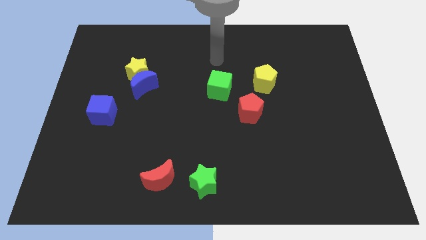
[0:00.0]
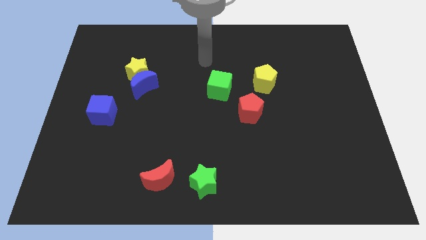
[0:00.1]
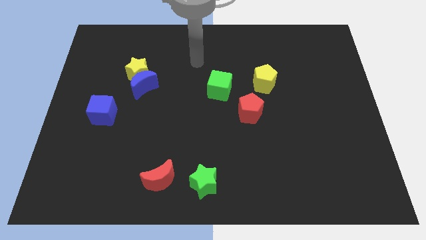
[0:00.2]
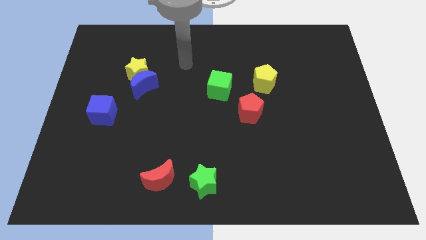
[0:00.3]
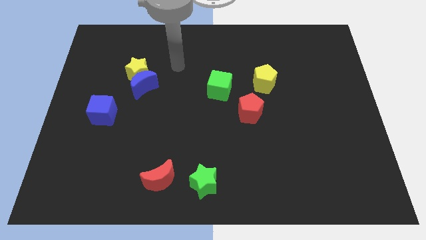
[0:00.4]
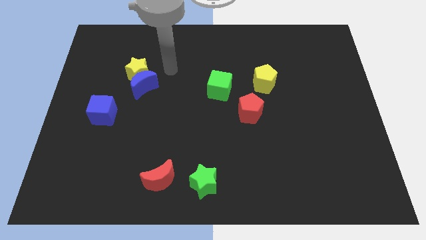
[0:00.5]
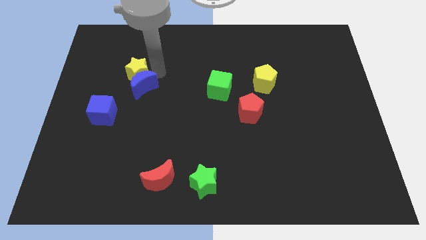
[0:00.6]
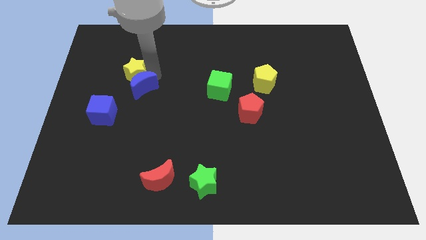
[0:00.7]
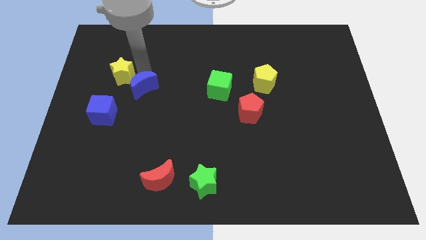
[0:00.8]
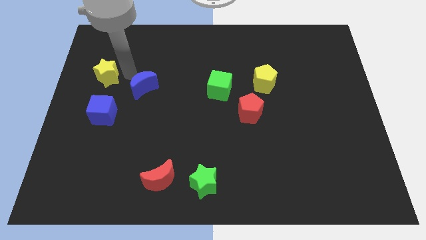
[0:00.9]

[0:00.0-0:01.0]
pull the blue moon apart from the yellow star

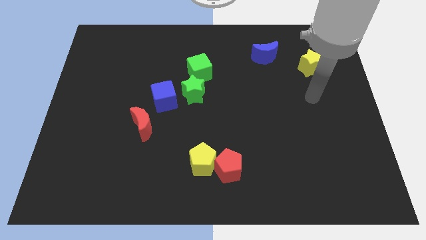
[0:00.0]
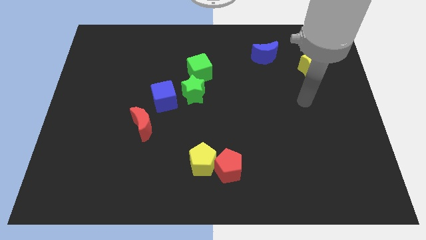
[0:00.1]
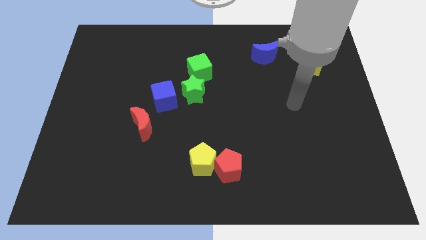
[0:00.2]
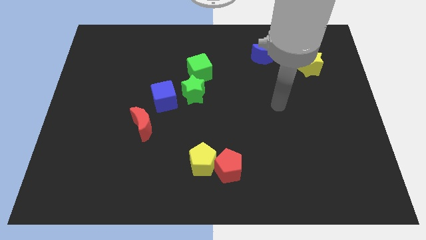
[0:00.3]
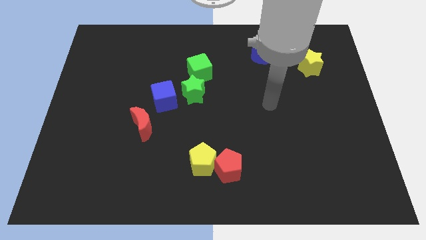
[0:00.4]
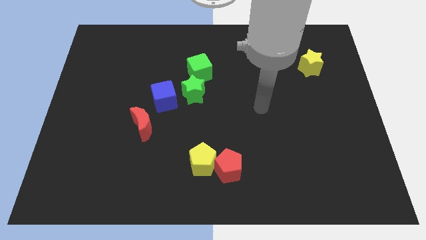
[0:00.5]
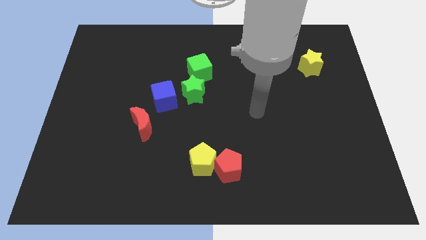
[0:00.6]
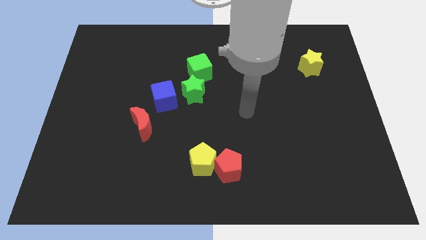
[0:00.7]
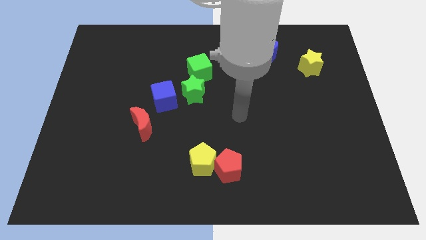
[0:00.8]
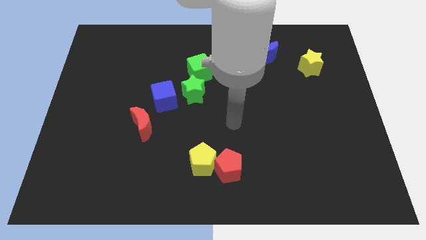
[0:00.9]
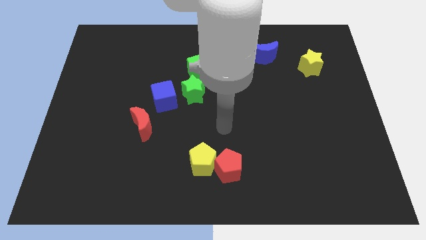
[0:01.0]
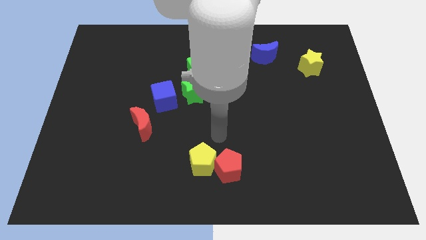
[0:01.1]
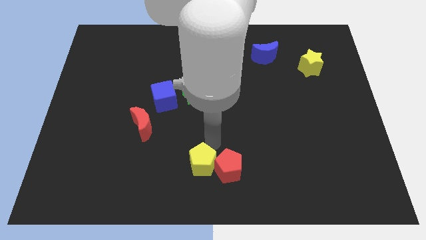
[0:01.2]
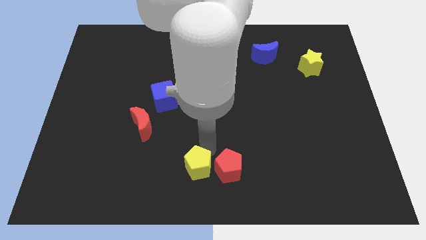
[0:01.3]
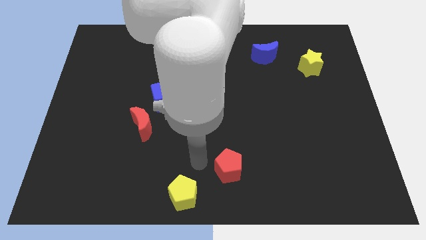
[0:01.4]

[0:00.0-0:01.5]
separate the red pentagon from the yellow pentagon

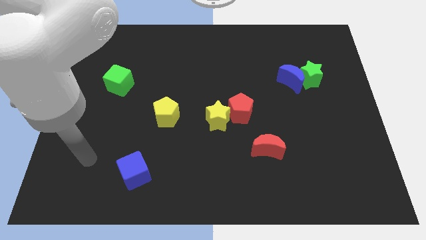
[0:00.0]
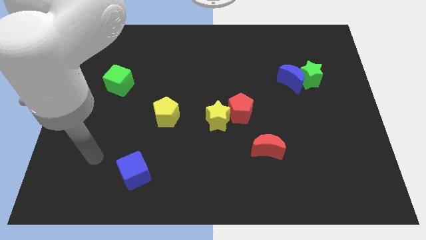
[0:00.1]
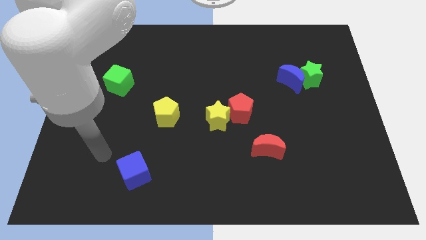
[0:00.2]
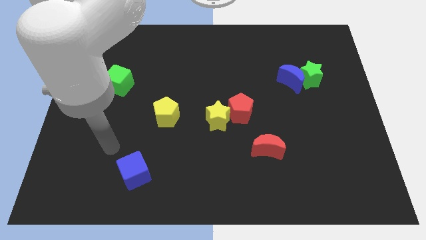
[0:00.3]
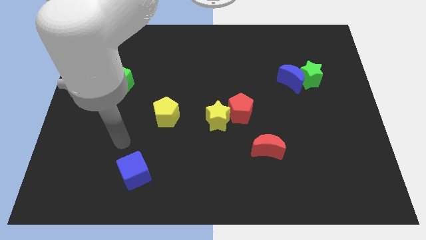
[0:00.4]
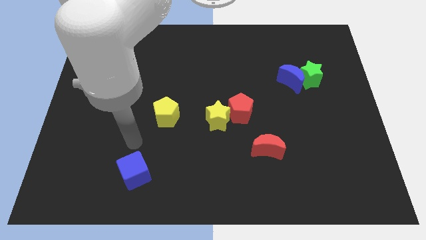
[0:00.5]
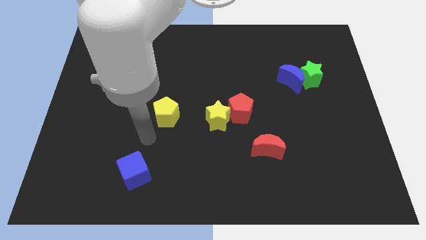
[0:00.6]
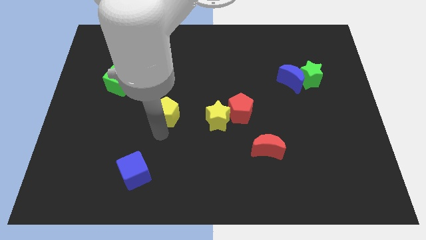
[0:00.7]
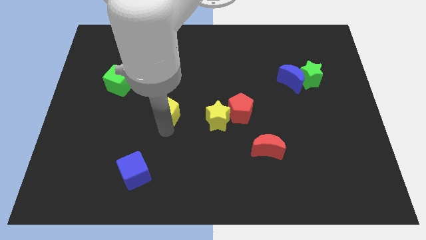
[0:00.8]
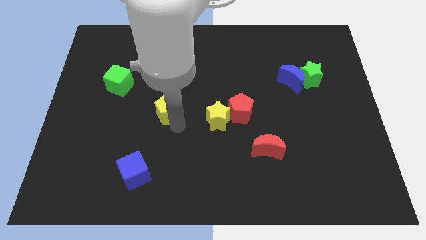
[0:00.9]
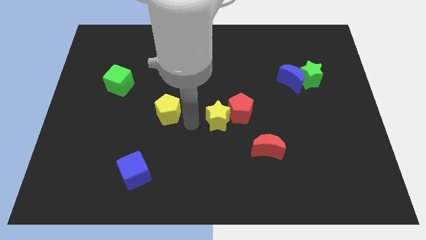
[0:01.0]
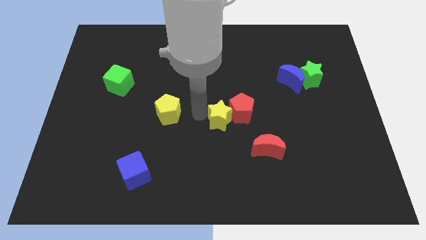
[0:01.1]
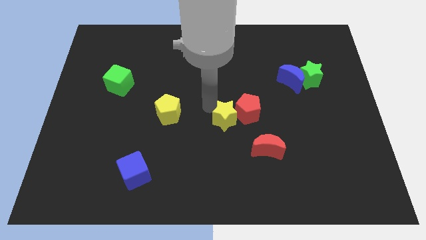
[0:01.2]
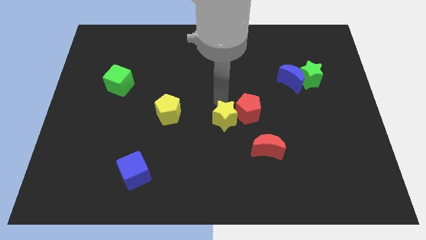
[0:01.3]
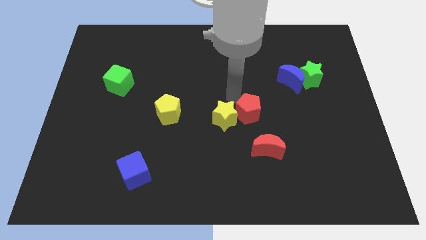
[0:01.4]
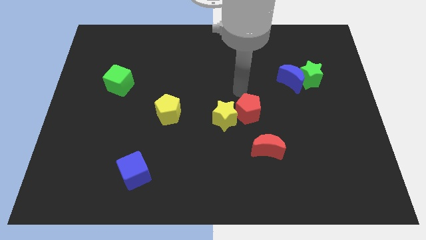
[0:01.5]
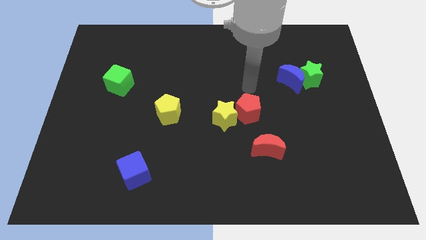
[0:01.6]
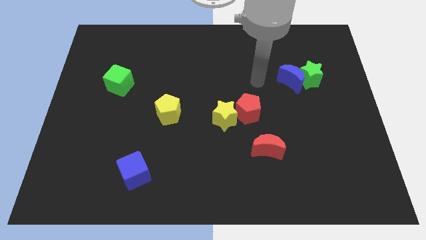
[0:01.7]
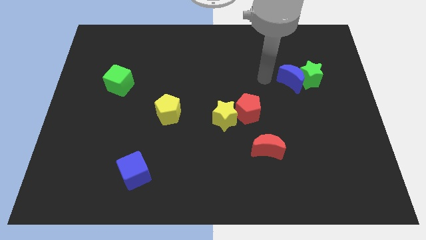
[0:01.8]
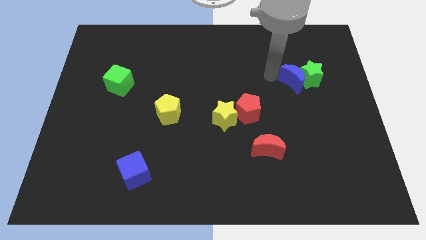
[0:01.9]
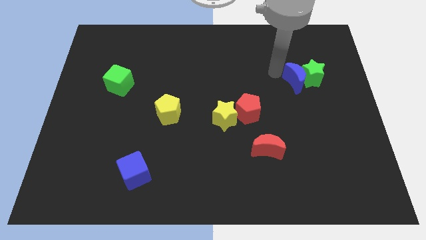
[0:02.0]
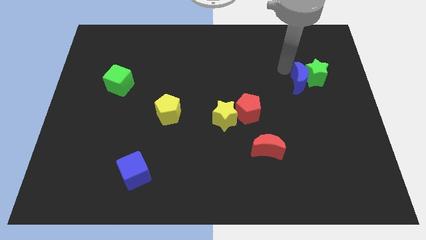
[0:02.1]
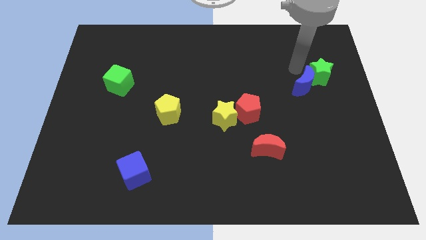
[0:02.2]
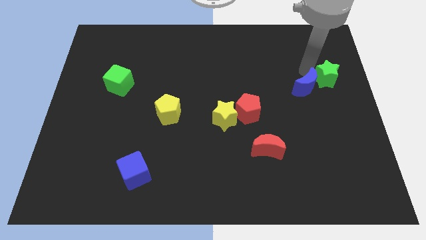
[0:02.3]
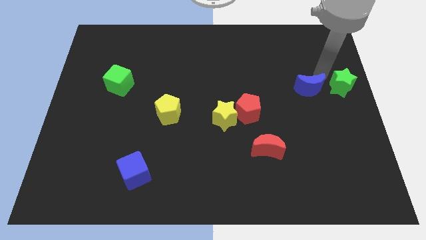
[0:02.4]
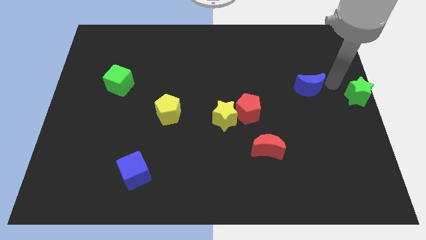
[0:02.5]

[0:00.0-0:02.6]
separate the blue moon from the green star

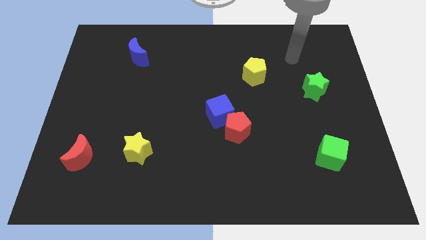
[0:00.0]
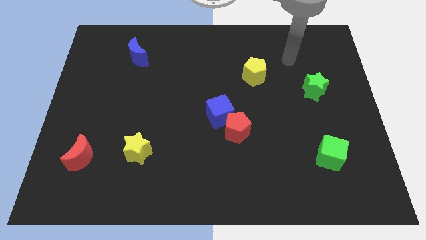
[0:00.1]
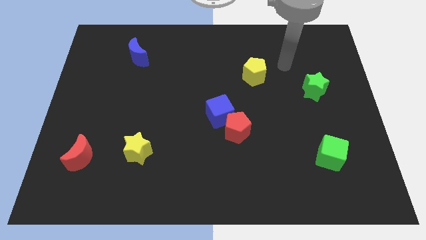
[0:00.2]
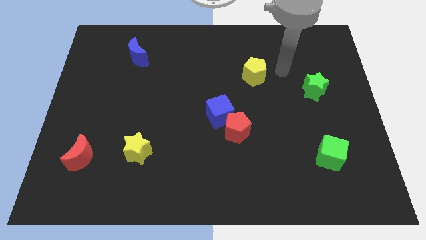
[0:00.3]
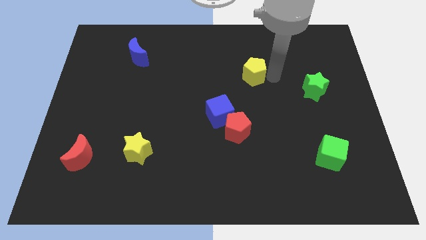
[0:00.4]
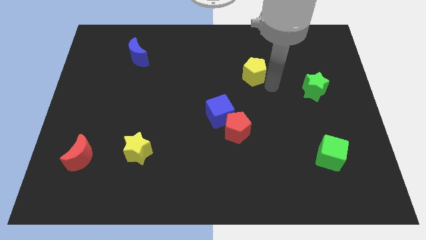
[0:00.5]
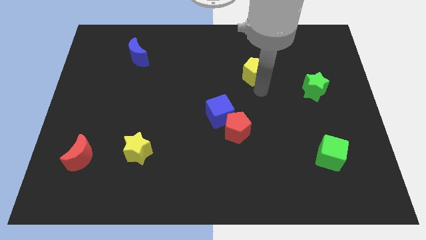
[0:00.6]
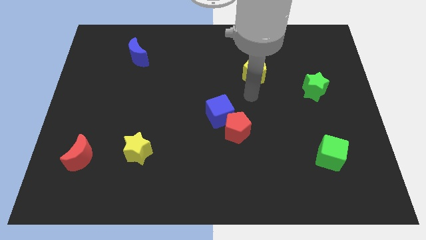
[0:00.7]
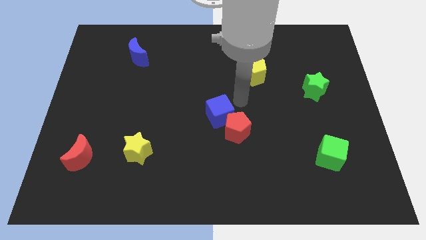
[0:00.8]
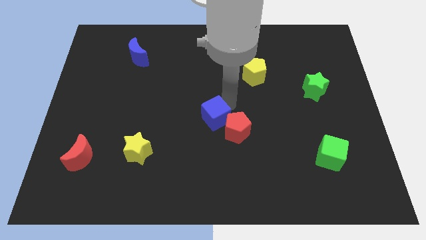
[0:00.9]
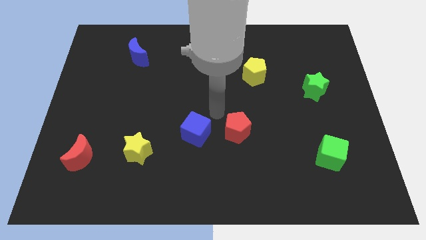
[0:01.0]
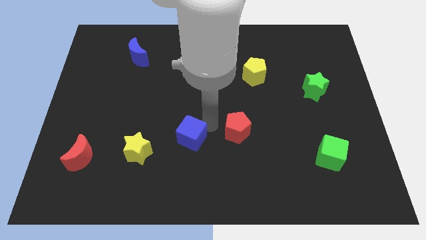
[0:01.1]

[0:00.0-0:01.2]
pull the red pentagon apart from the blue cube

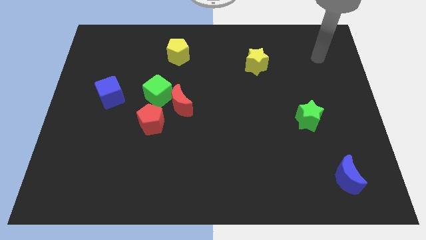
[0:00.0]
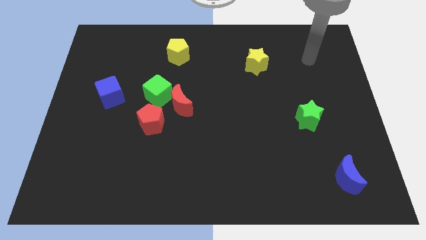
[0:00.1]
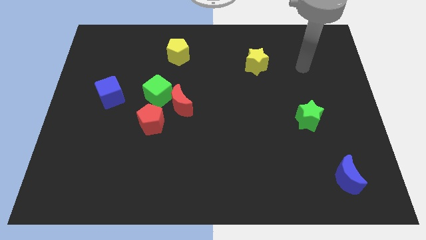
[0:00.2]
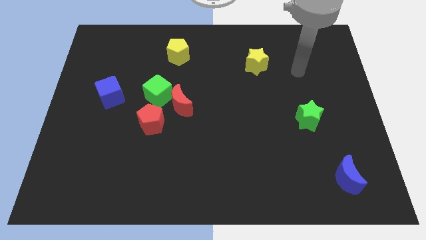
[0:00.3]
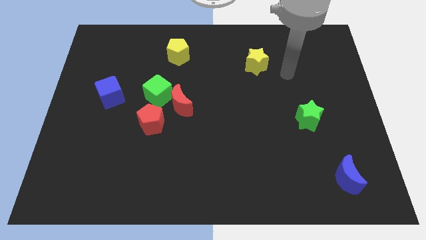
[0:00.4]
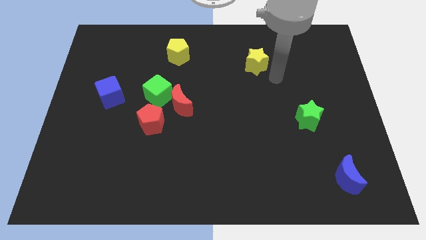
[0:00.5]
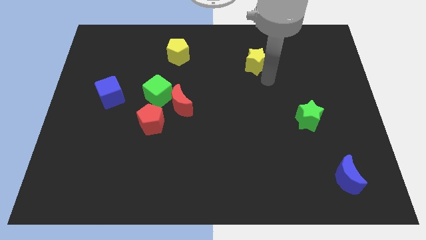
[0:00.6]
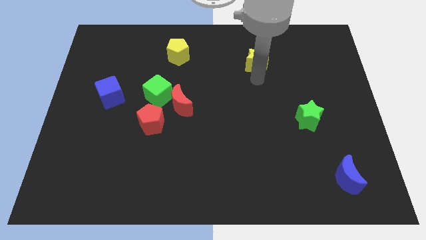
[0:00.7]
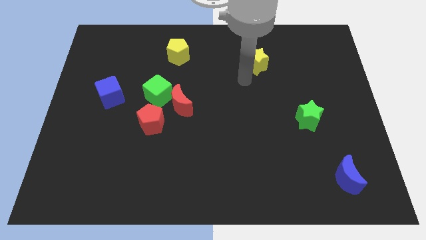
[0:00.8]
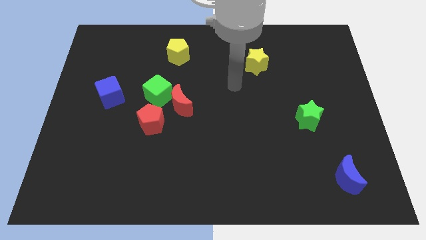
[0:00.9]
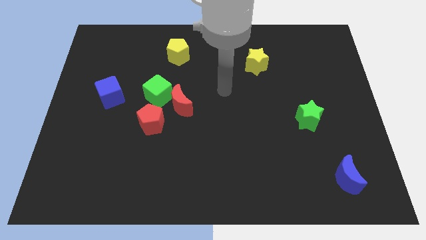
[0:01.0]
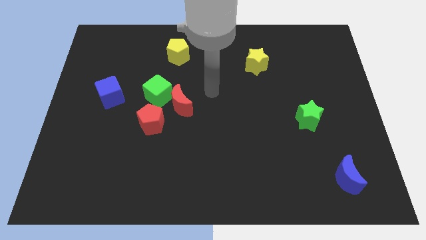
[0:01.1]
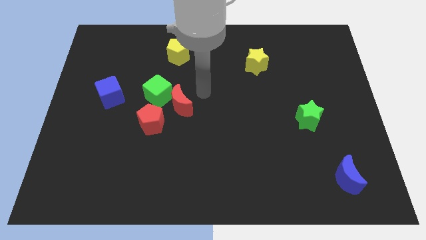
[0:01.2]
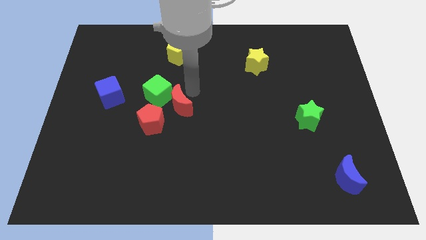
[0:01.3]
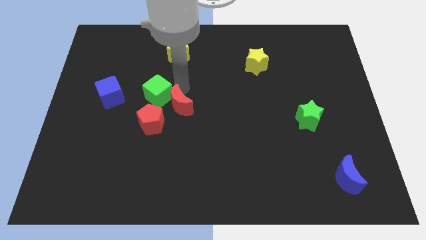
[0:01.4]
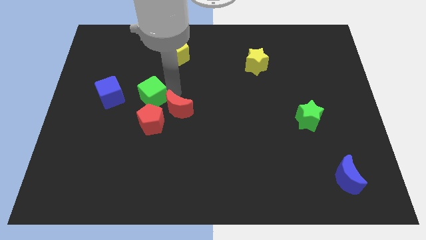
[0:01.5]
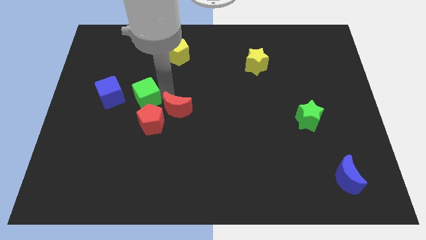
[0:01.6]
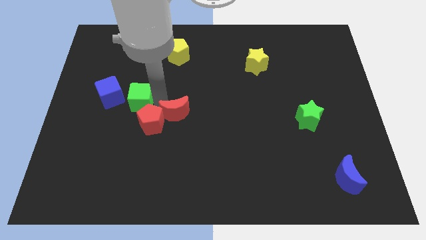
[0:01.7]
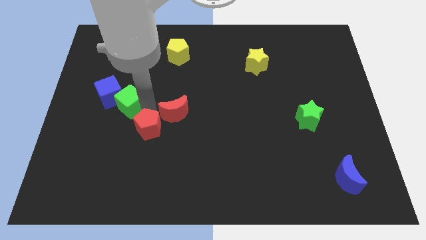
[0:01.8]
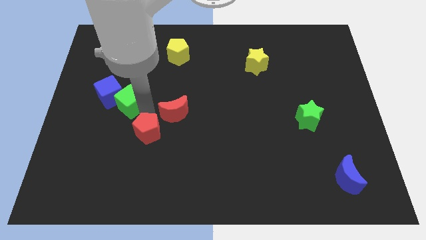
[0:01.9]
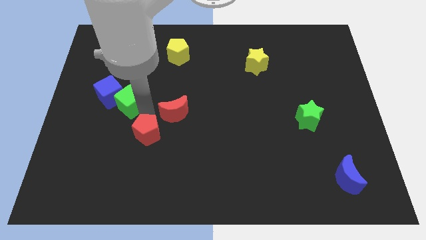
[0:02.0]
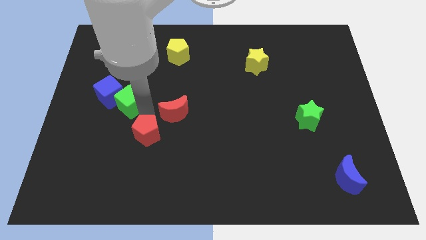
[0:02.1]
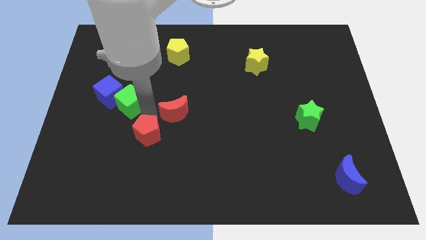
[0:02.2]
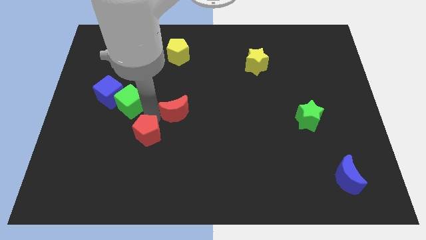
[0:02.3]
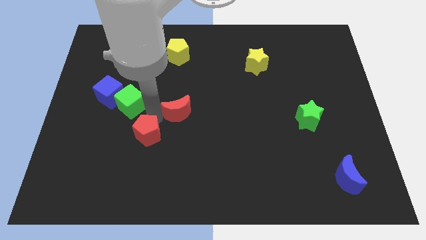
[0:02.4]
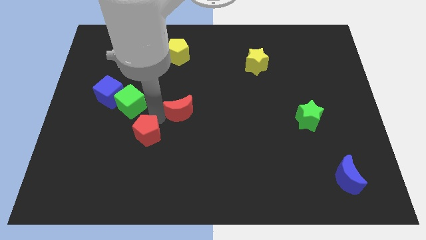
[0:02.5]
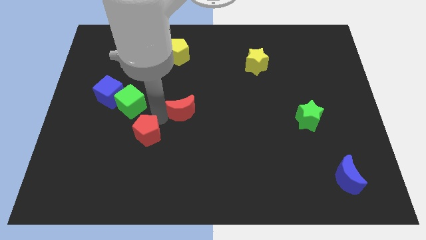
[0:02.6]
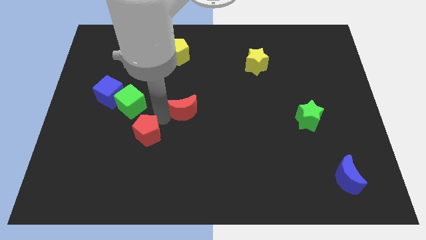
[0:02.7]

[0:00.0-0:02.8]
move the red moon away from the green cube and red pentagon

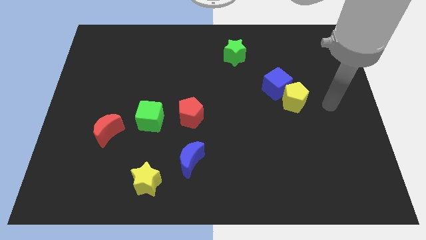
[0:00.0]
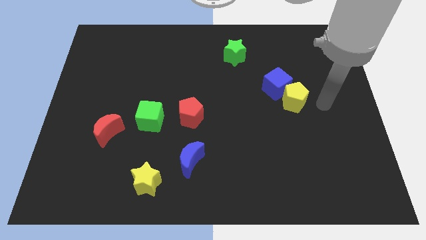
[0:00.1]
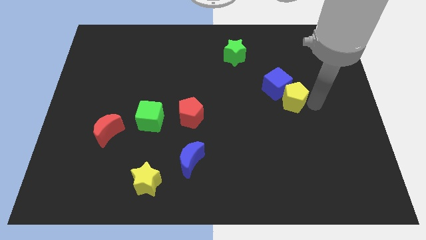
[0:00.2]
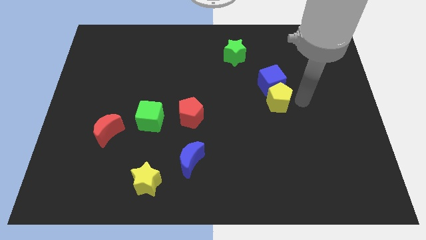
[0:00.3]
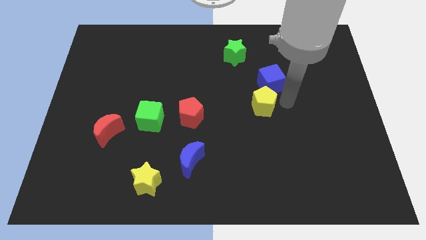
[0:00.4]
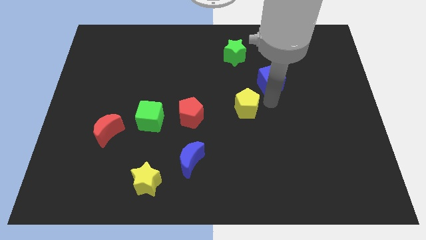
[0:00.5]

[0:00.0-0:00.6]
pull the blue cube apart from the yellow pentagon
